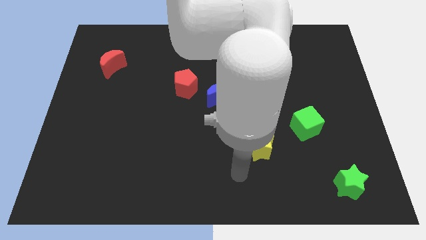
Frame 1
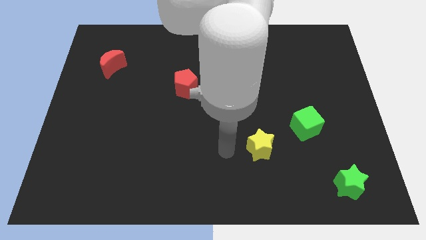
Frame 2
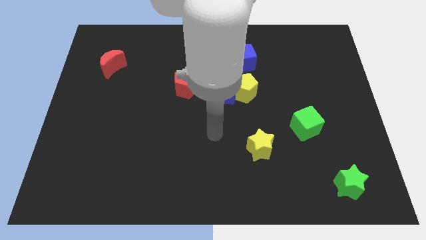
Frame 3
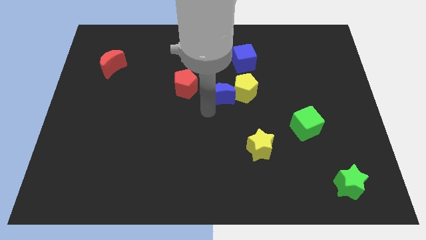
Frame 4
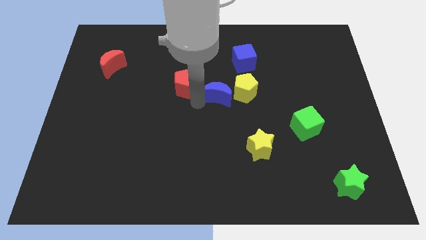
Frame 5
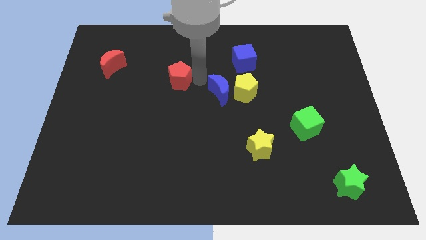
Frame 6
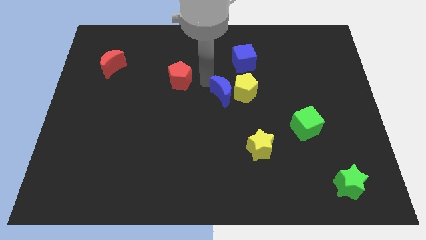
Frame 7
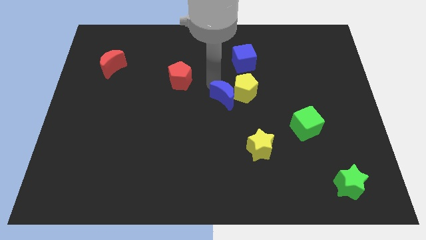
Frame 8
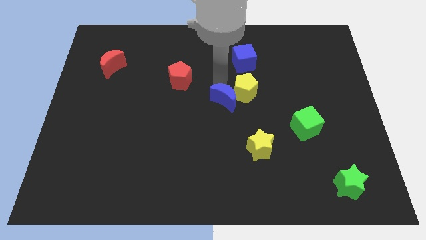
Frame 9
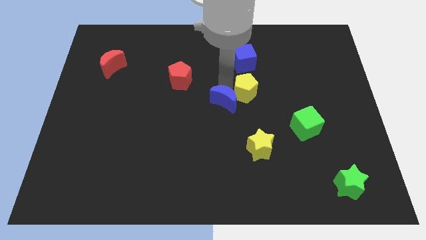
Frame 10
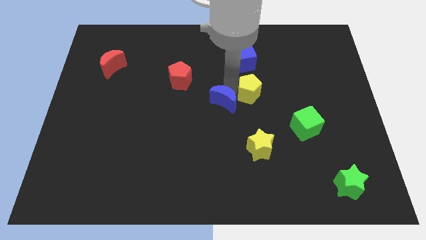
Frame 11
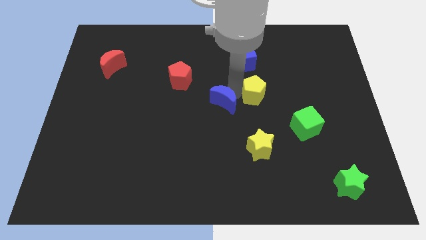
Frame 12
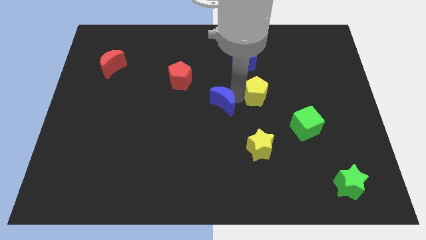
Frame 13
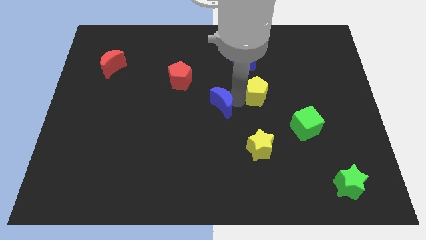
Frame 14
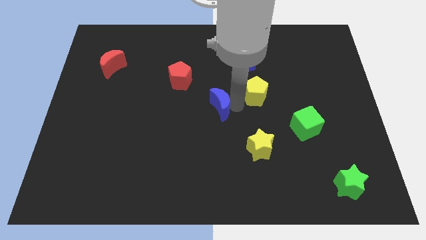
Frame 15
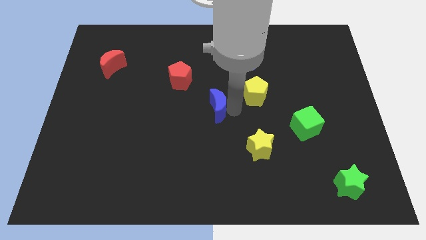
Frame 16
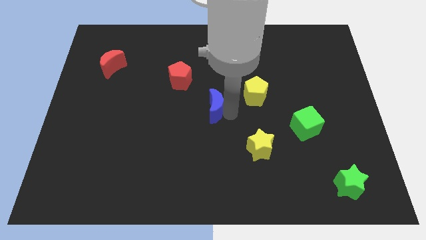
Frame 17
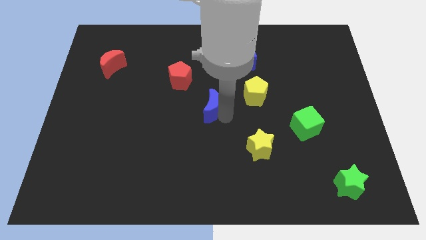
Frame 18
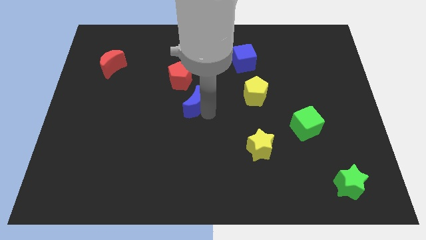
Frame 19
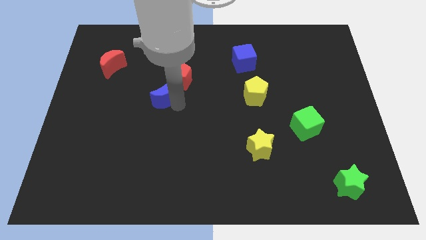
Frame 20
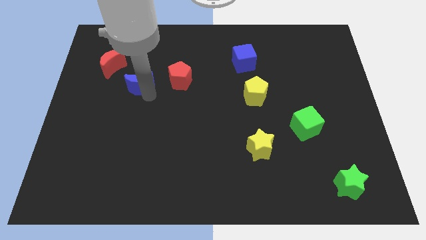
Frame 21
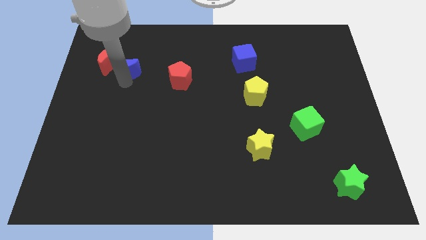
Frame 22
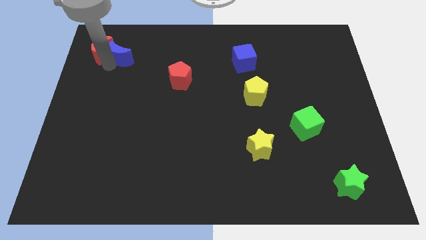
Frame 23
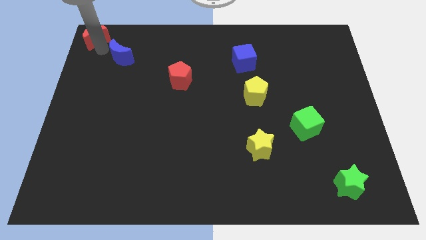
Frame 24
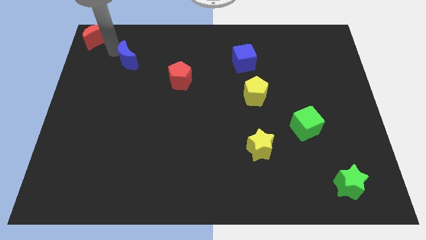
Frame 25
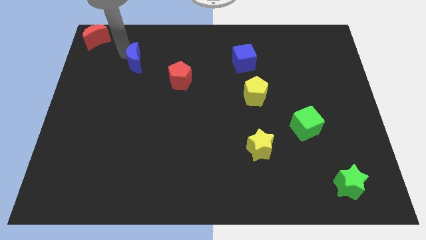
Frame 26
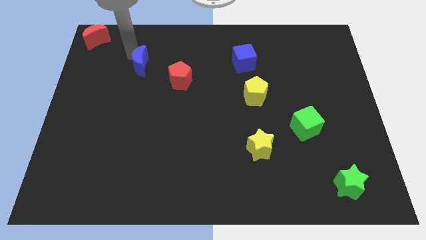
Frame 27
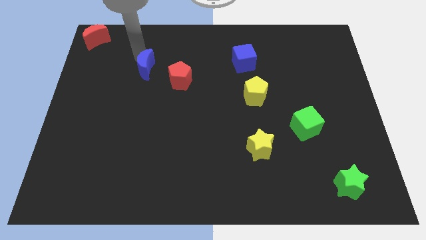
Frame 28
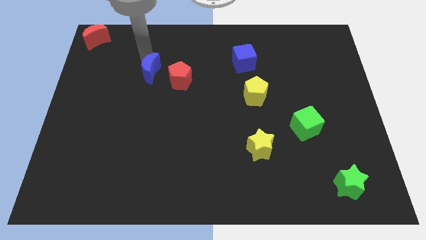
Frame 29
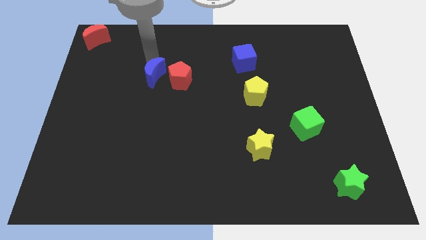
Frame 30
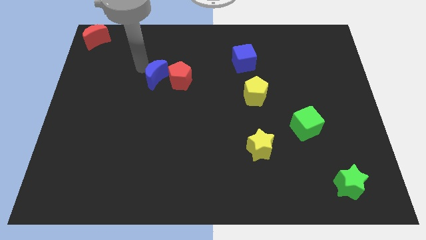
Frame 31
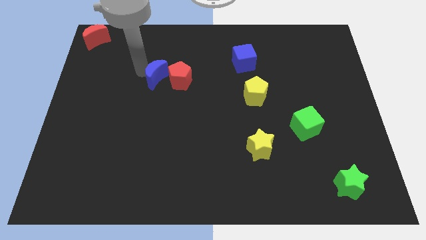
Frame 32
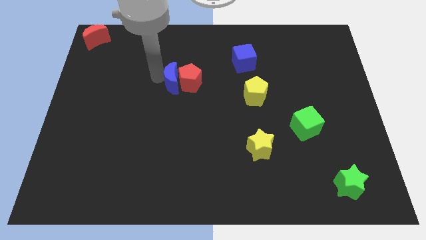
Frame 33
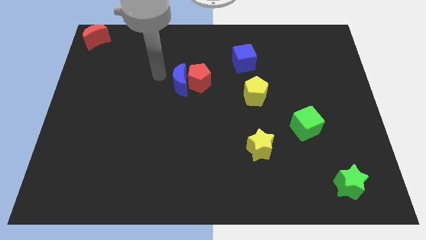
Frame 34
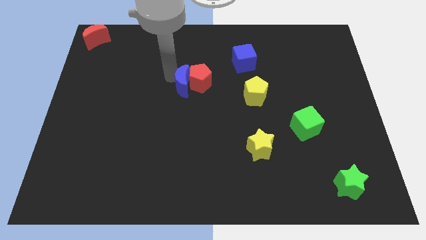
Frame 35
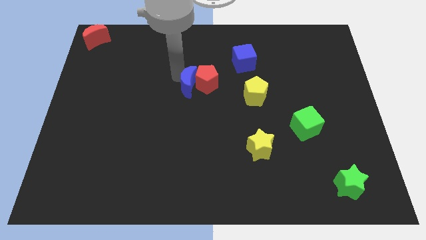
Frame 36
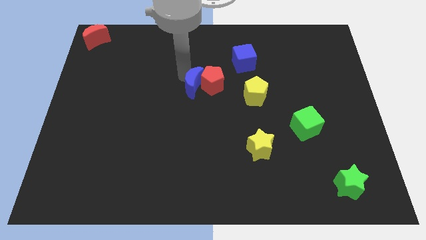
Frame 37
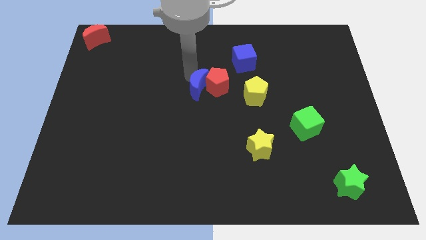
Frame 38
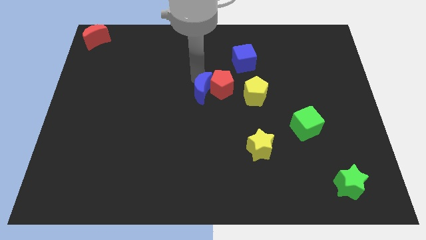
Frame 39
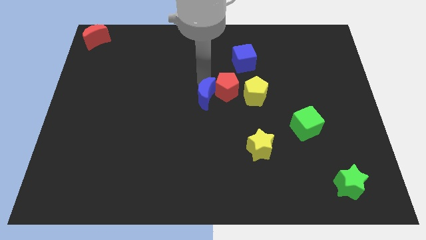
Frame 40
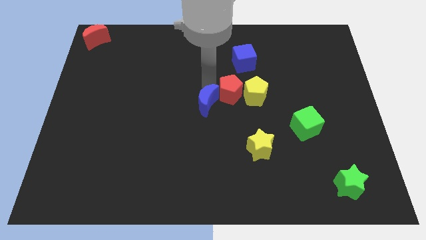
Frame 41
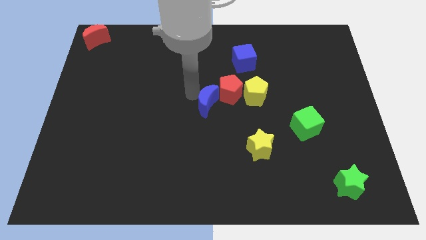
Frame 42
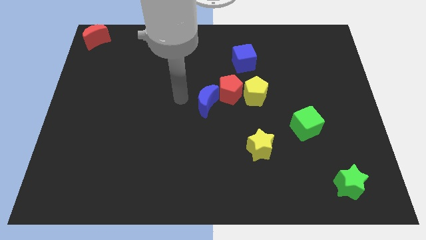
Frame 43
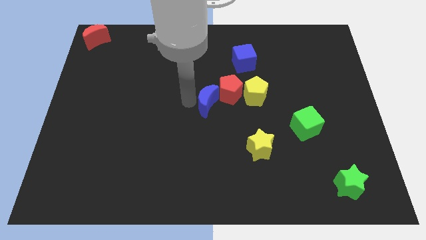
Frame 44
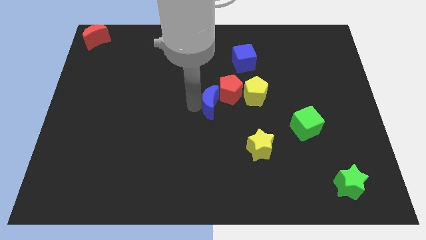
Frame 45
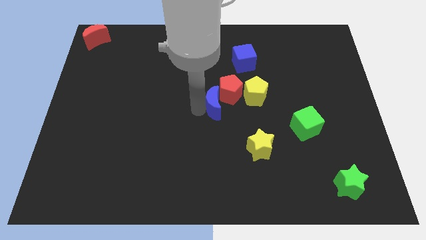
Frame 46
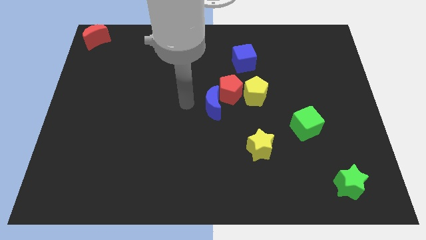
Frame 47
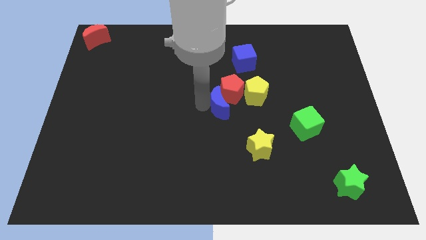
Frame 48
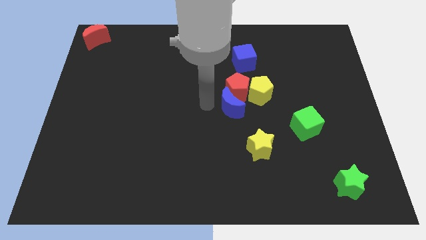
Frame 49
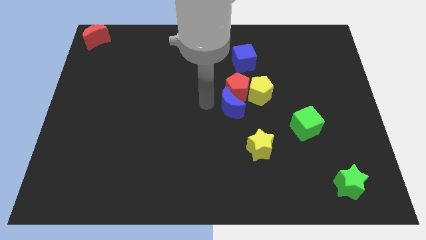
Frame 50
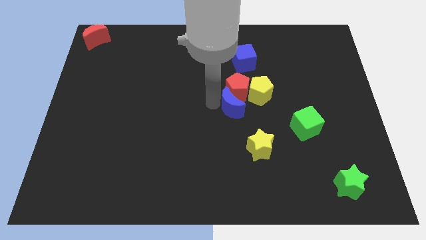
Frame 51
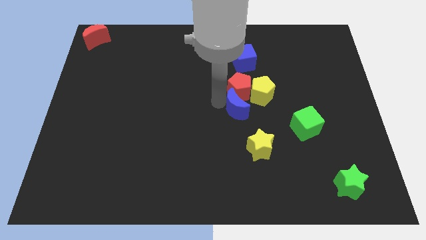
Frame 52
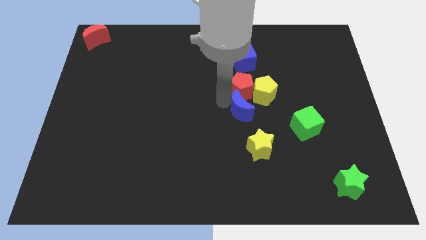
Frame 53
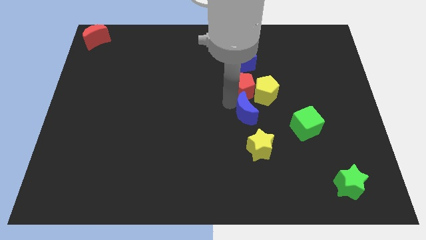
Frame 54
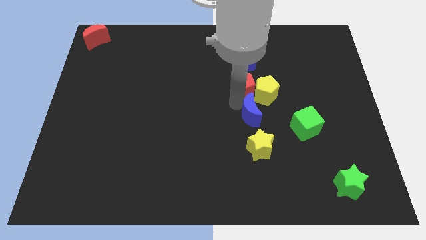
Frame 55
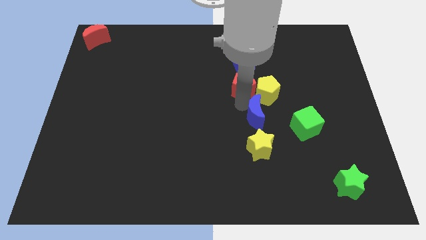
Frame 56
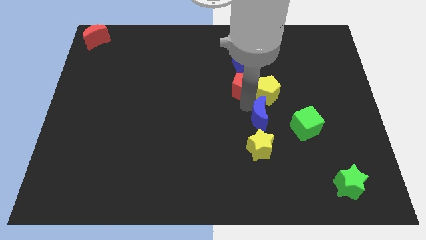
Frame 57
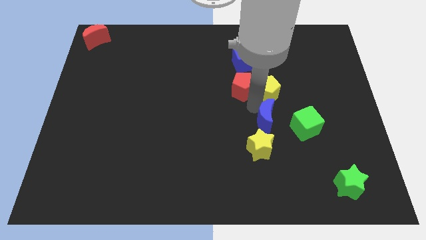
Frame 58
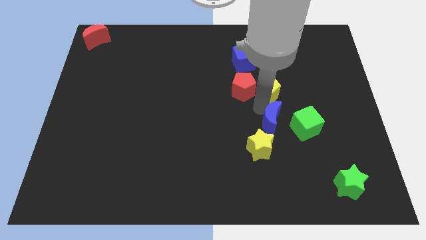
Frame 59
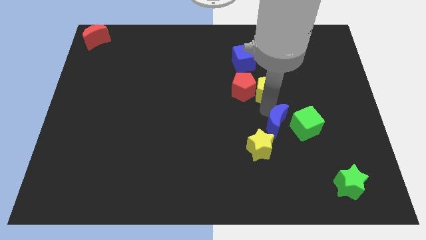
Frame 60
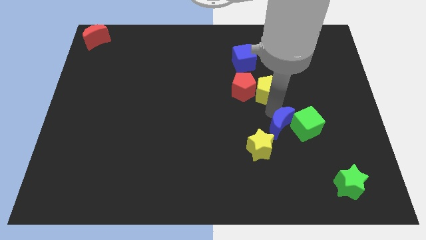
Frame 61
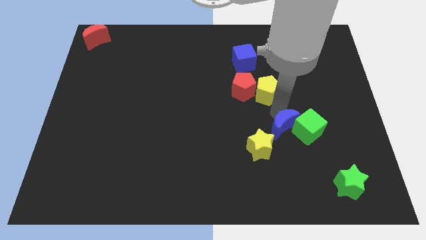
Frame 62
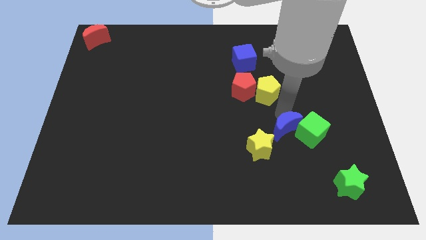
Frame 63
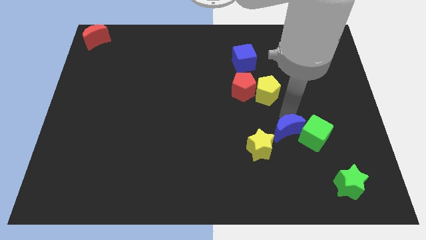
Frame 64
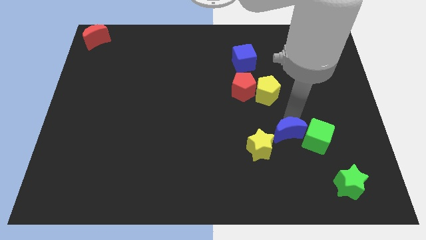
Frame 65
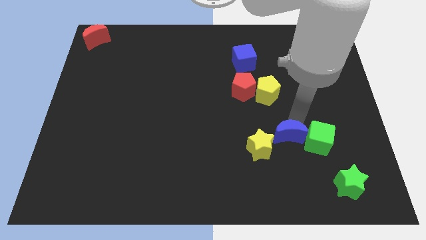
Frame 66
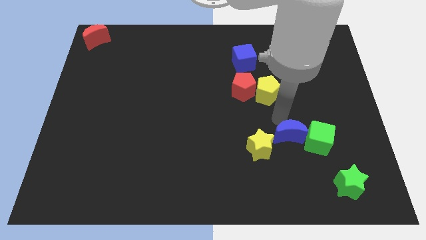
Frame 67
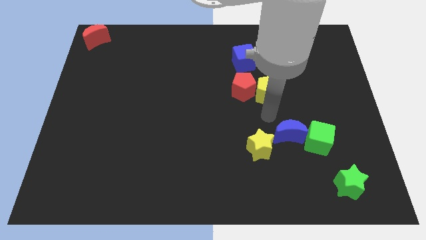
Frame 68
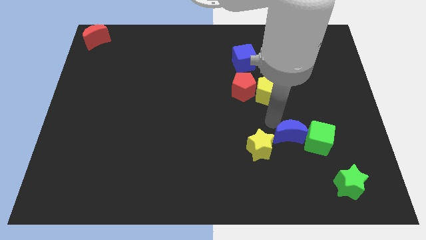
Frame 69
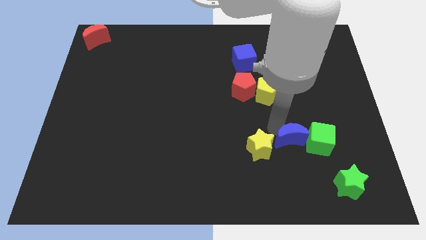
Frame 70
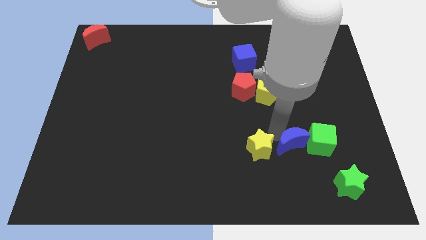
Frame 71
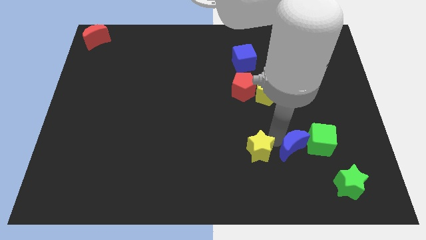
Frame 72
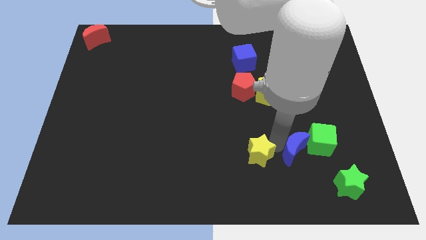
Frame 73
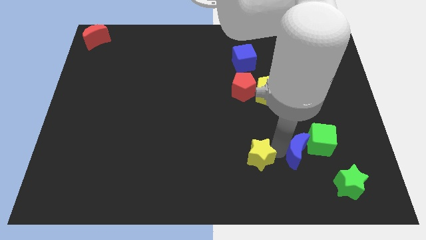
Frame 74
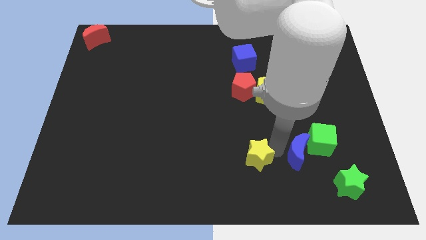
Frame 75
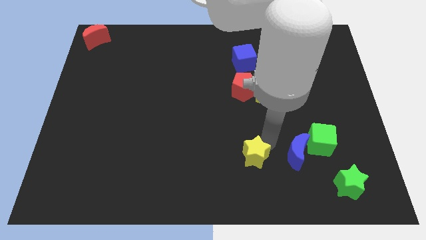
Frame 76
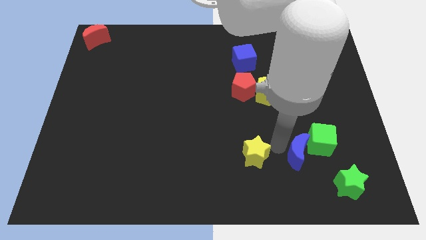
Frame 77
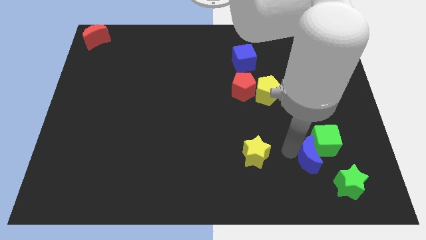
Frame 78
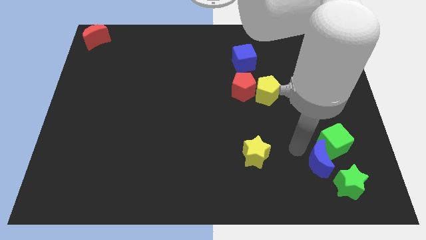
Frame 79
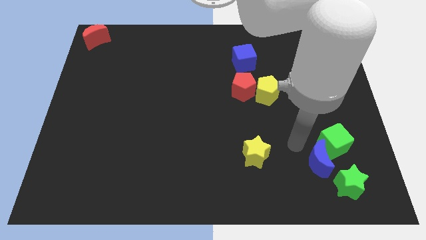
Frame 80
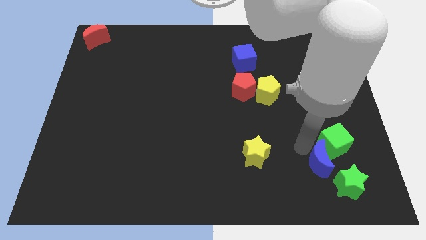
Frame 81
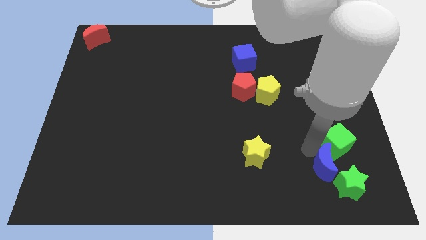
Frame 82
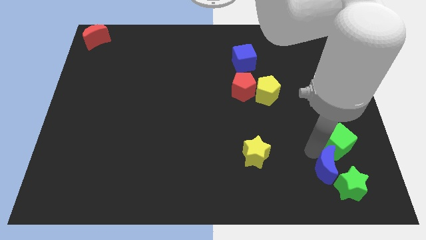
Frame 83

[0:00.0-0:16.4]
push the blue moon towards the green star
